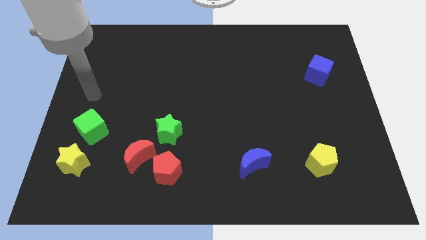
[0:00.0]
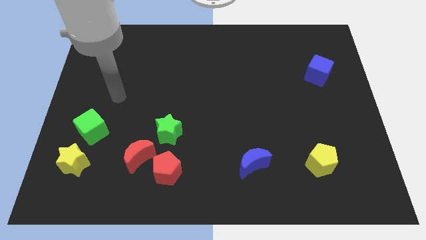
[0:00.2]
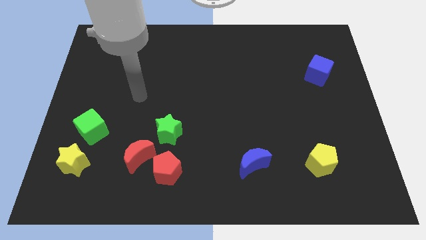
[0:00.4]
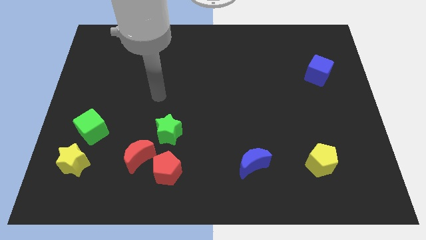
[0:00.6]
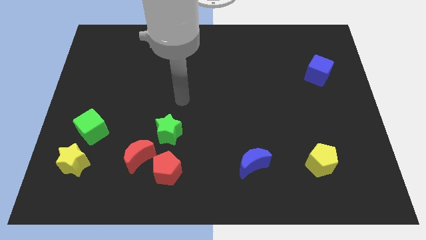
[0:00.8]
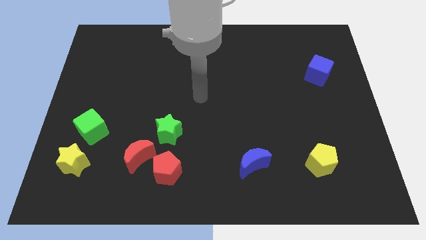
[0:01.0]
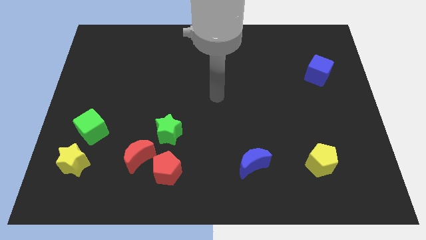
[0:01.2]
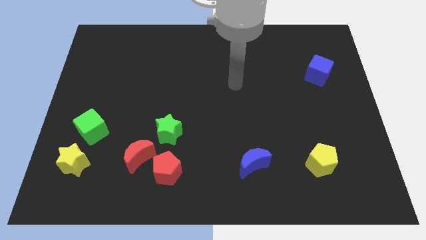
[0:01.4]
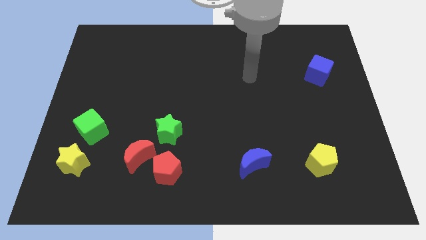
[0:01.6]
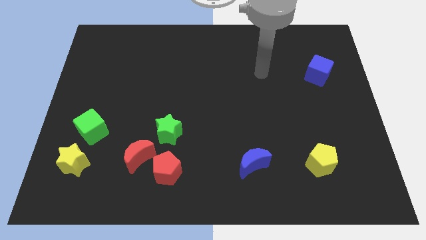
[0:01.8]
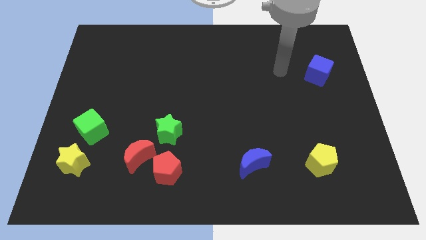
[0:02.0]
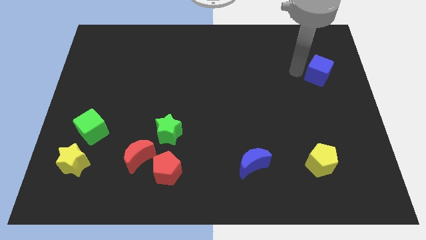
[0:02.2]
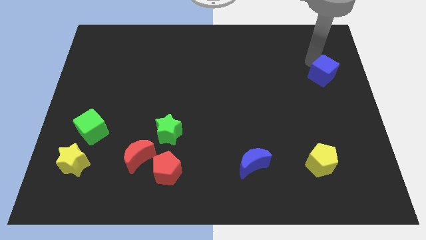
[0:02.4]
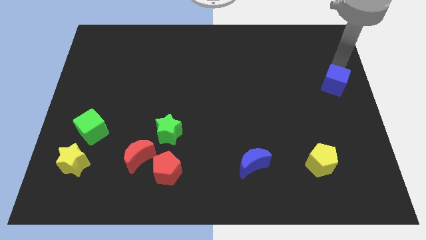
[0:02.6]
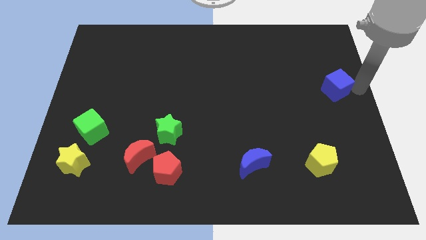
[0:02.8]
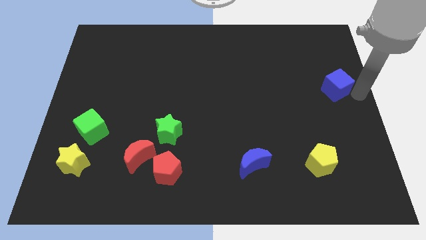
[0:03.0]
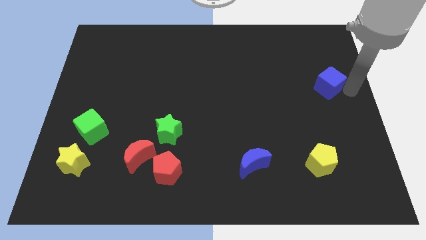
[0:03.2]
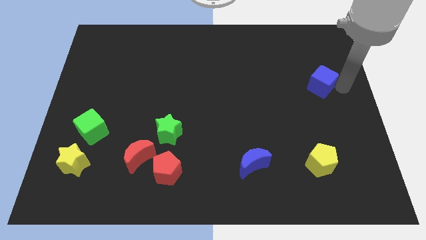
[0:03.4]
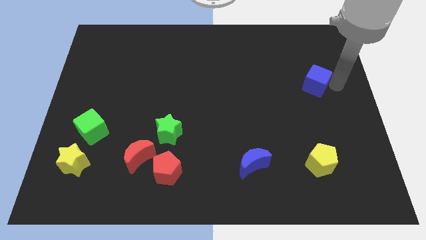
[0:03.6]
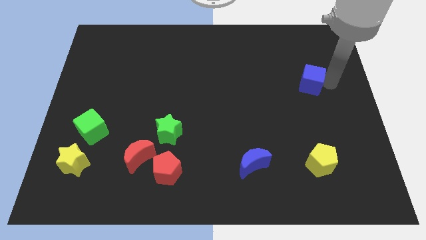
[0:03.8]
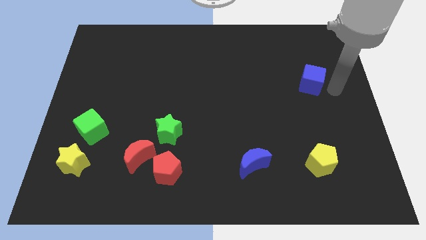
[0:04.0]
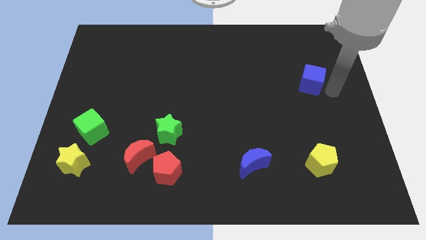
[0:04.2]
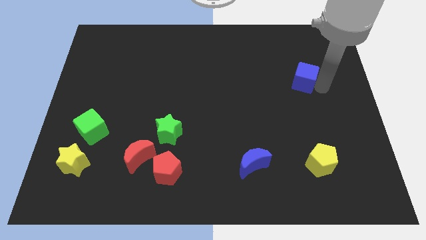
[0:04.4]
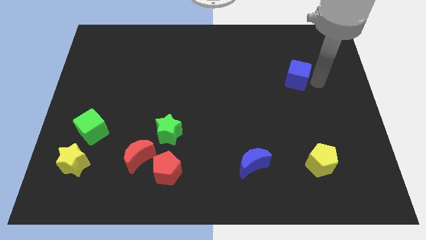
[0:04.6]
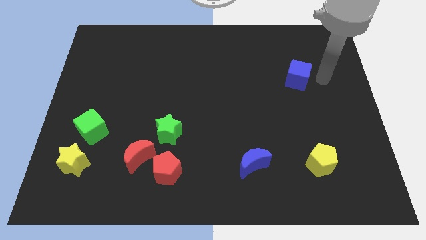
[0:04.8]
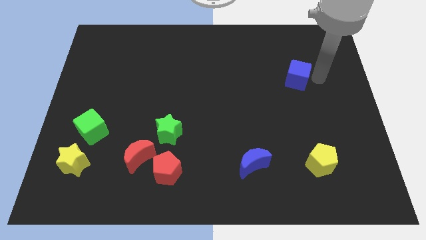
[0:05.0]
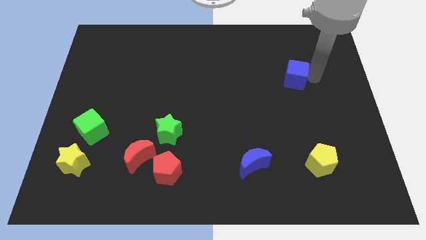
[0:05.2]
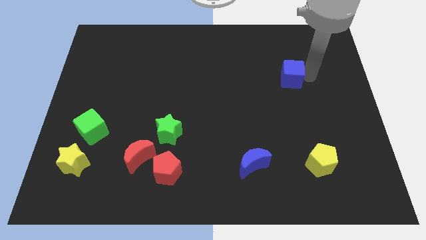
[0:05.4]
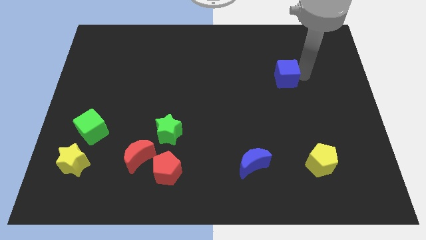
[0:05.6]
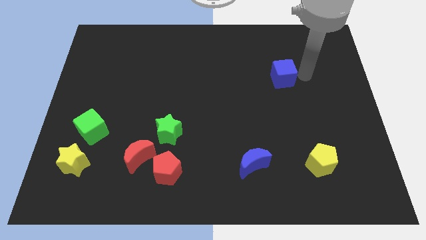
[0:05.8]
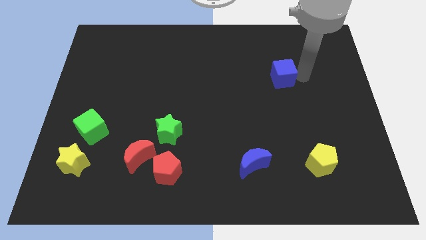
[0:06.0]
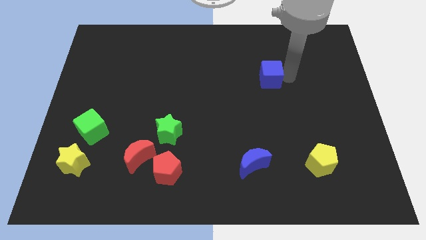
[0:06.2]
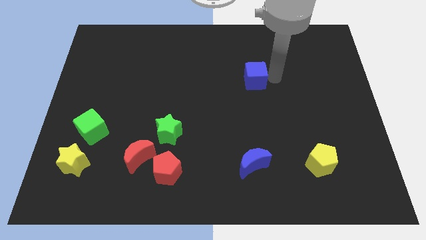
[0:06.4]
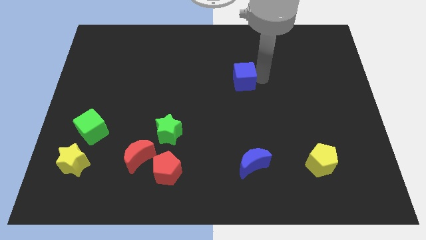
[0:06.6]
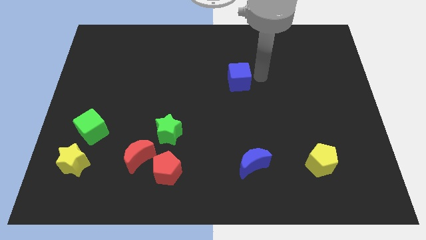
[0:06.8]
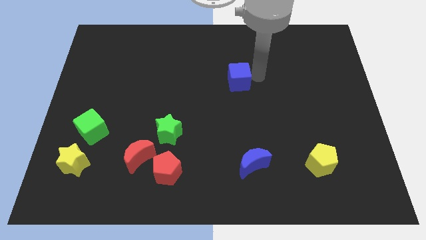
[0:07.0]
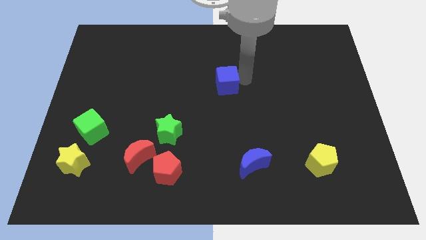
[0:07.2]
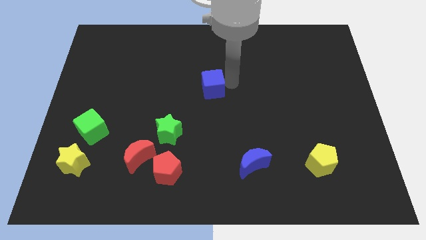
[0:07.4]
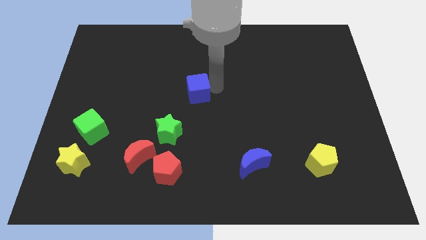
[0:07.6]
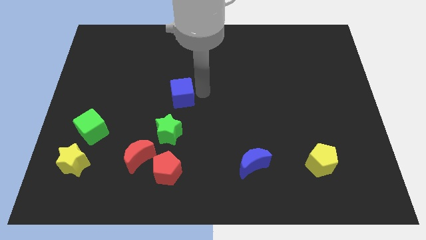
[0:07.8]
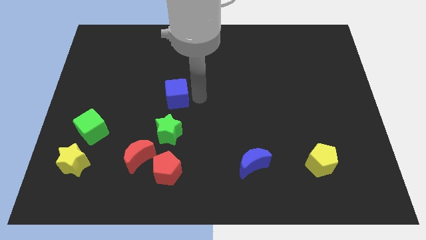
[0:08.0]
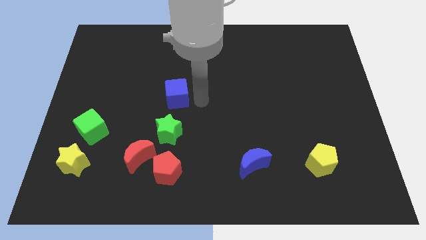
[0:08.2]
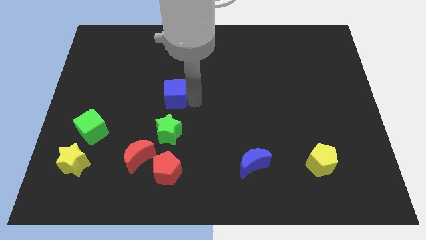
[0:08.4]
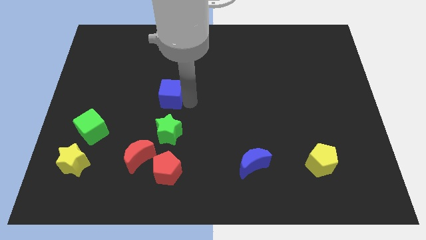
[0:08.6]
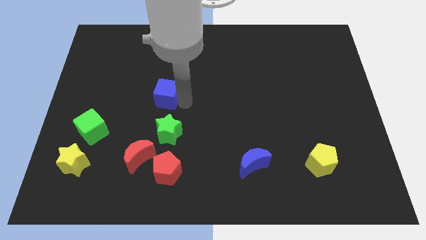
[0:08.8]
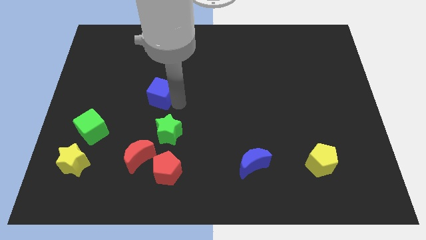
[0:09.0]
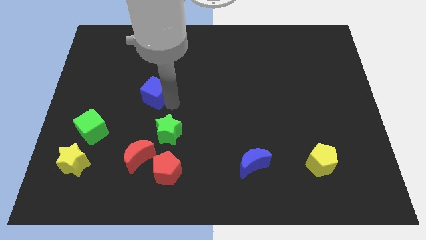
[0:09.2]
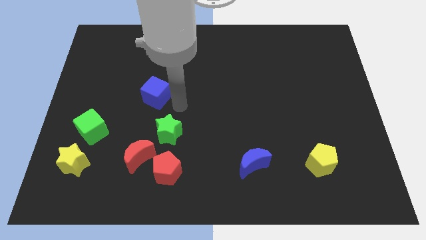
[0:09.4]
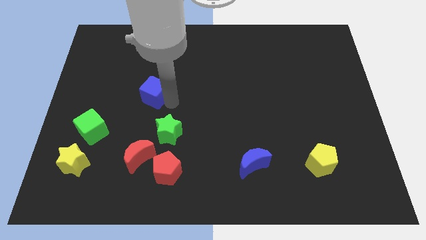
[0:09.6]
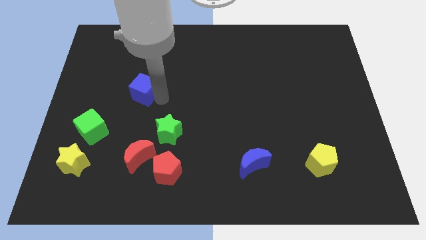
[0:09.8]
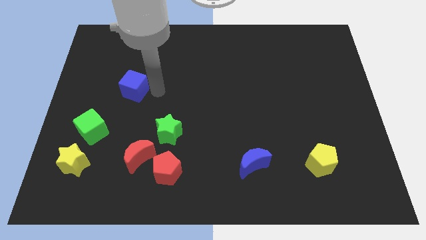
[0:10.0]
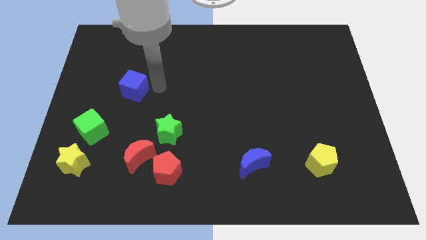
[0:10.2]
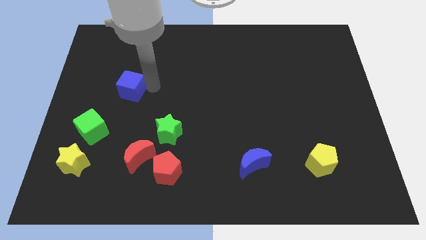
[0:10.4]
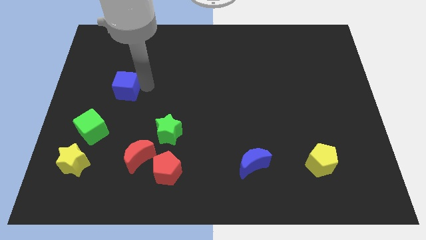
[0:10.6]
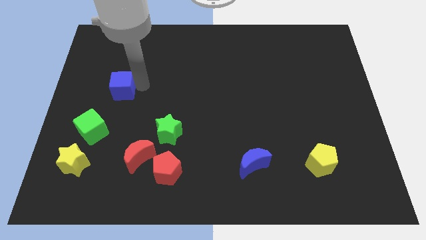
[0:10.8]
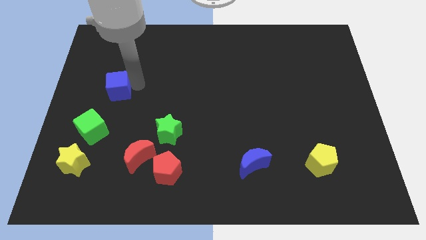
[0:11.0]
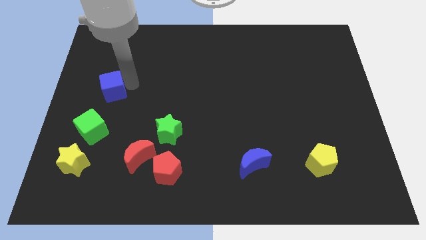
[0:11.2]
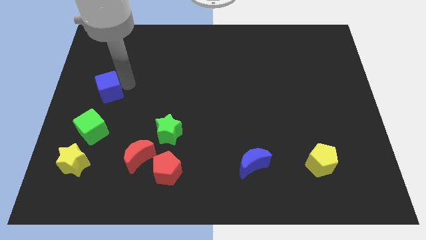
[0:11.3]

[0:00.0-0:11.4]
push the blue cube to the center left

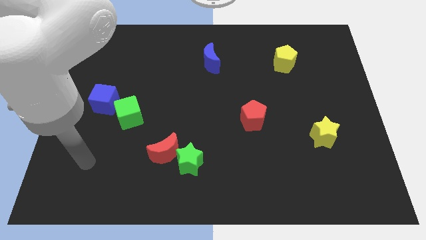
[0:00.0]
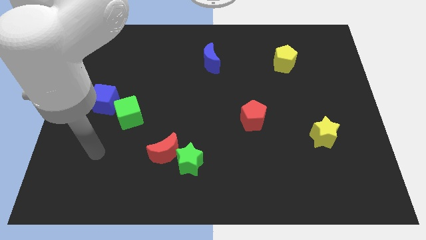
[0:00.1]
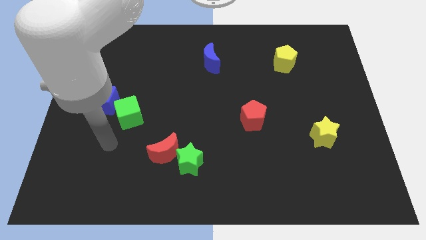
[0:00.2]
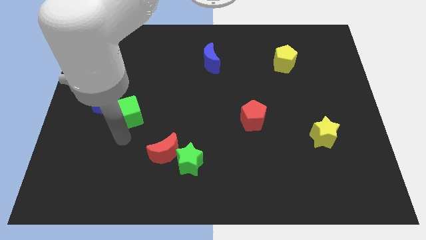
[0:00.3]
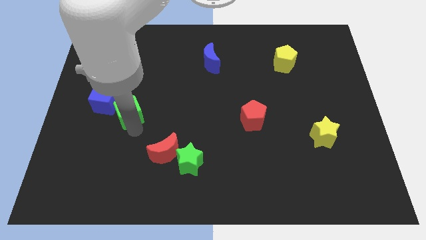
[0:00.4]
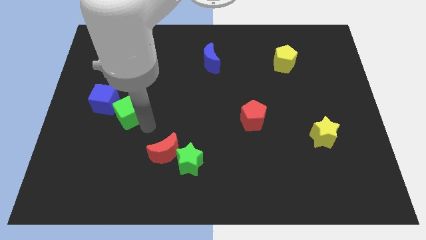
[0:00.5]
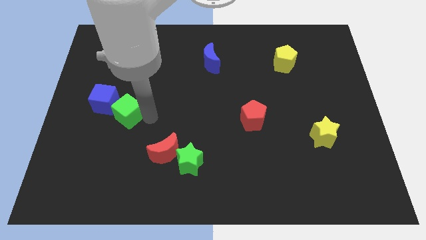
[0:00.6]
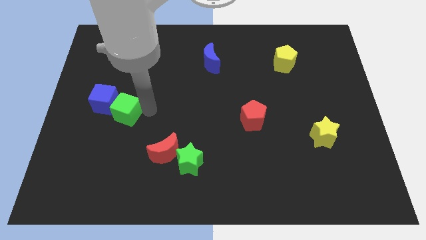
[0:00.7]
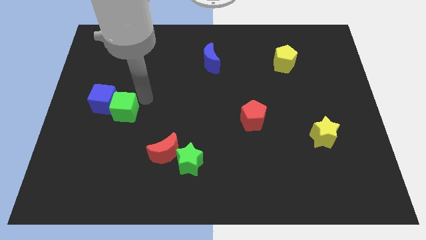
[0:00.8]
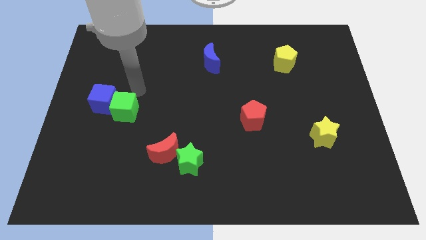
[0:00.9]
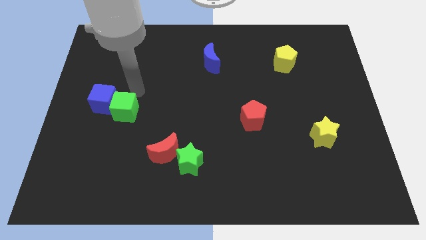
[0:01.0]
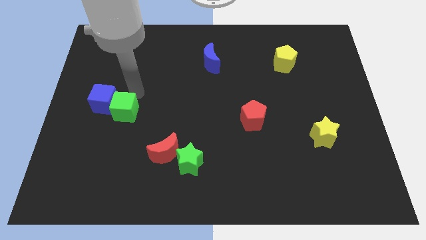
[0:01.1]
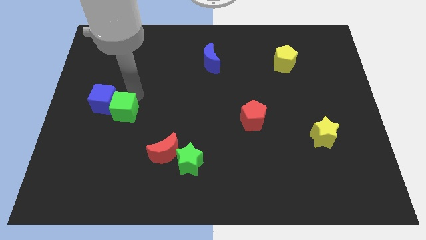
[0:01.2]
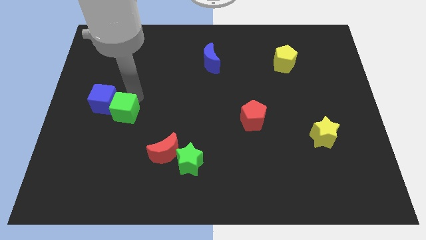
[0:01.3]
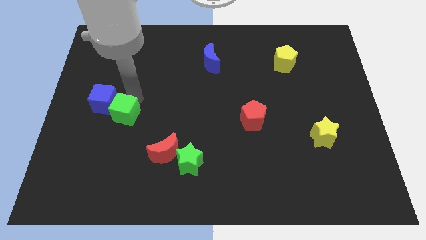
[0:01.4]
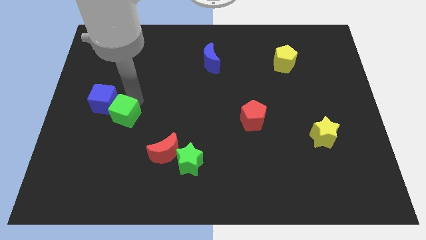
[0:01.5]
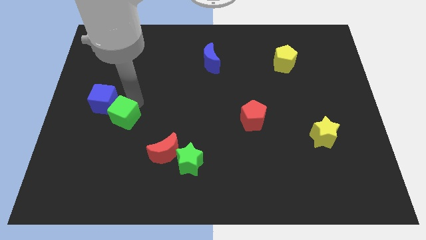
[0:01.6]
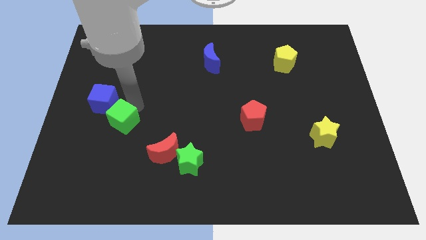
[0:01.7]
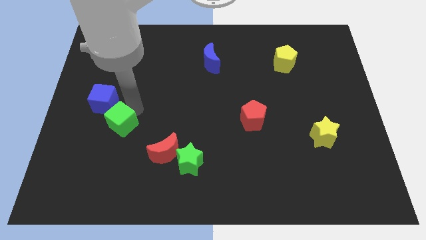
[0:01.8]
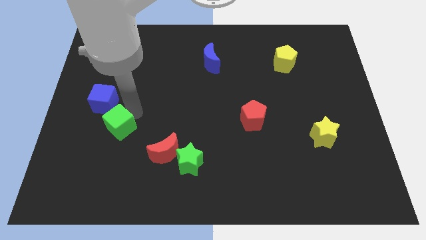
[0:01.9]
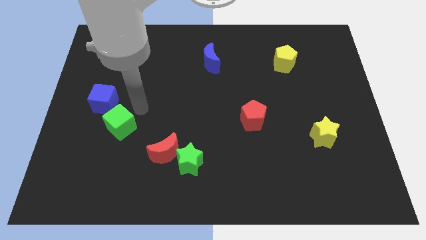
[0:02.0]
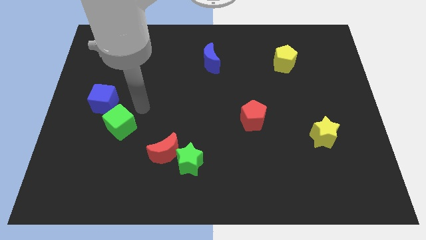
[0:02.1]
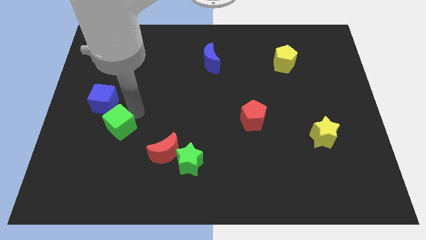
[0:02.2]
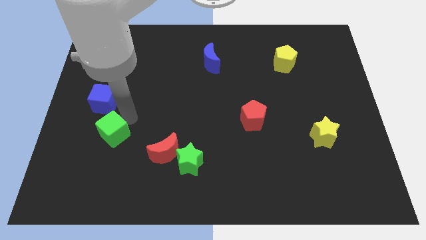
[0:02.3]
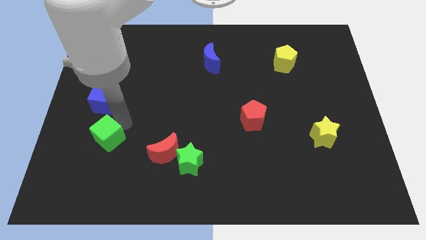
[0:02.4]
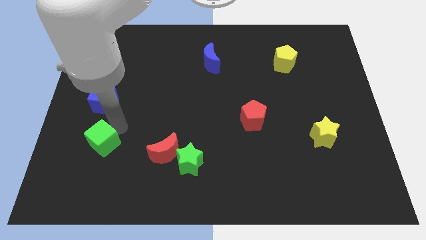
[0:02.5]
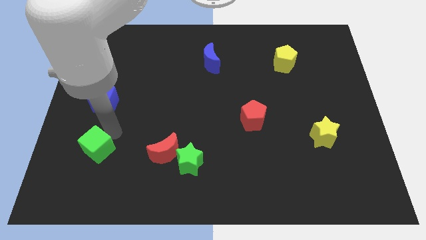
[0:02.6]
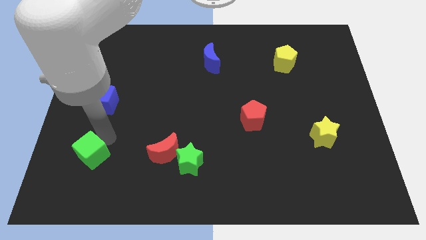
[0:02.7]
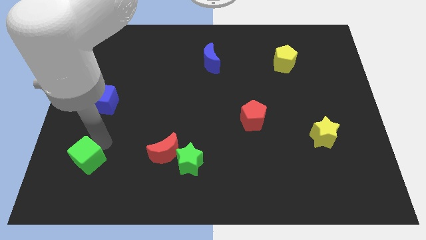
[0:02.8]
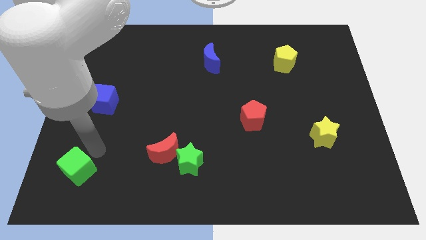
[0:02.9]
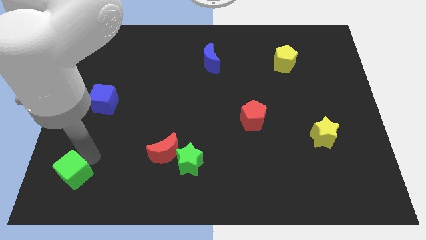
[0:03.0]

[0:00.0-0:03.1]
slide the green cube to the lower left corner
